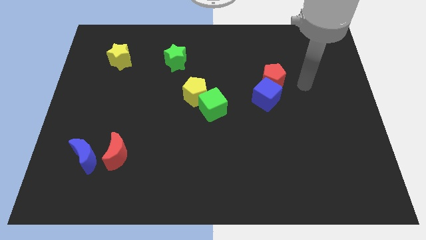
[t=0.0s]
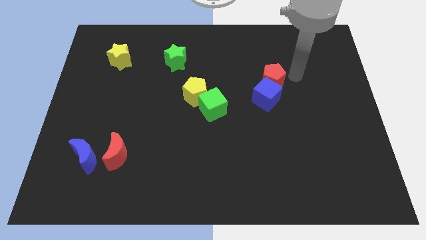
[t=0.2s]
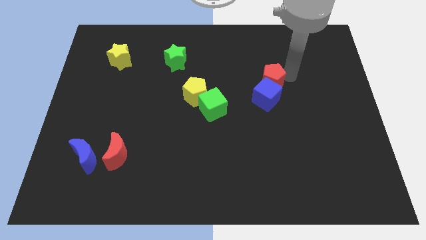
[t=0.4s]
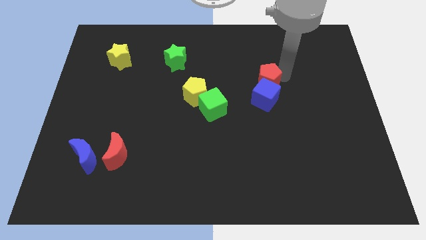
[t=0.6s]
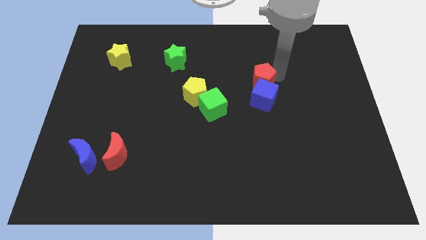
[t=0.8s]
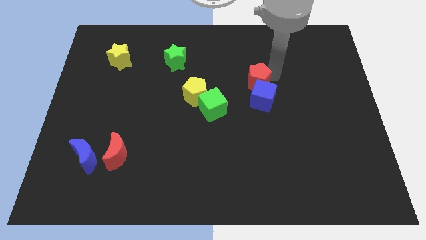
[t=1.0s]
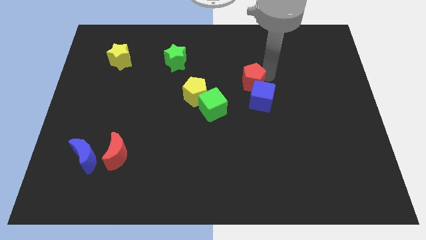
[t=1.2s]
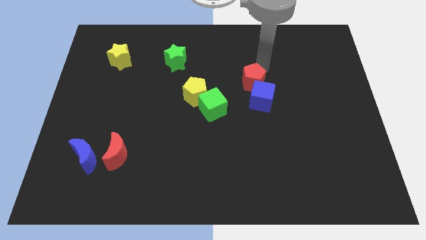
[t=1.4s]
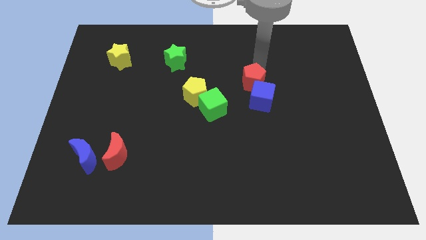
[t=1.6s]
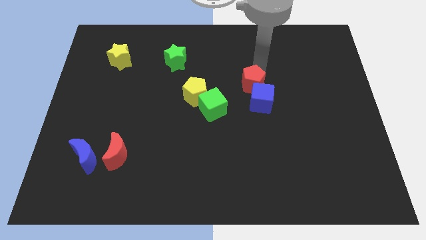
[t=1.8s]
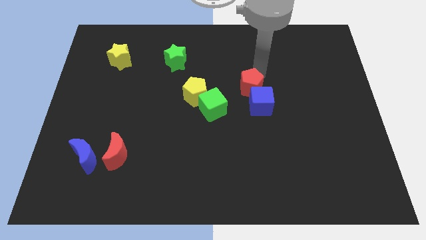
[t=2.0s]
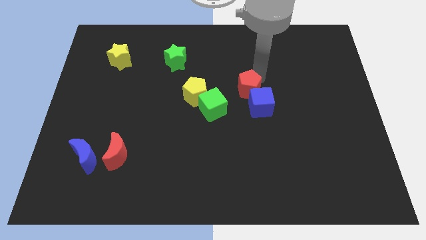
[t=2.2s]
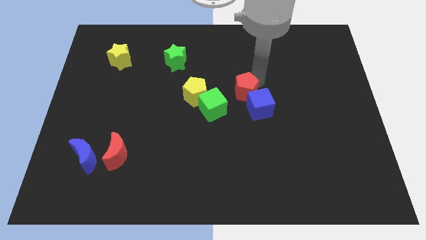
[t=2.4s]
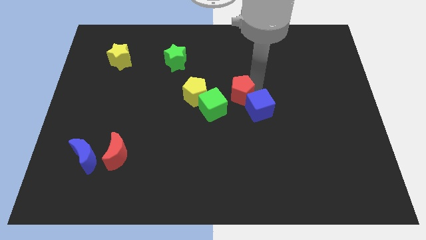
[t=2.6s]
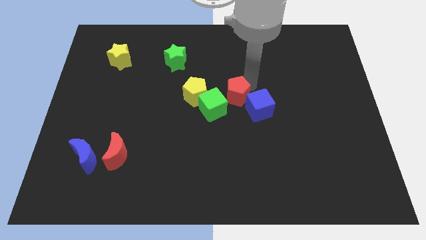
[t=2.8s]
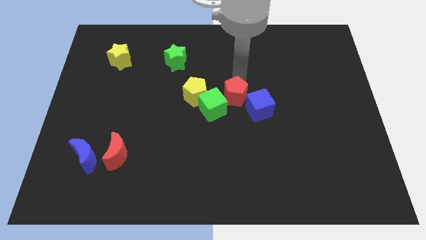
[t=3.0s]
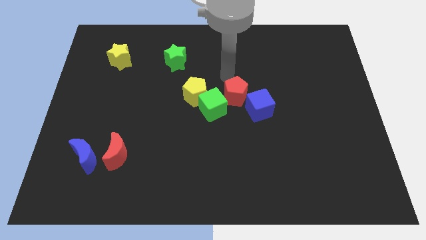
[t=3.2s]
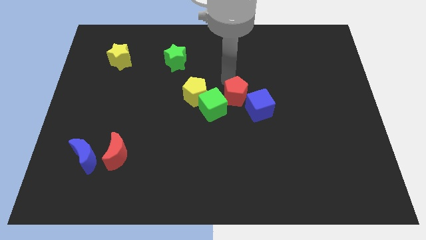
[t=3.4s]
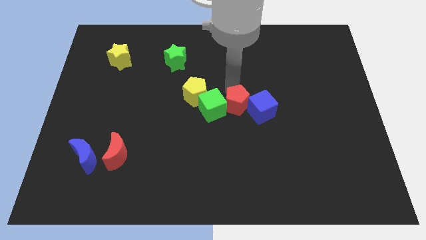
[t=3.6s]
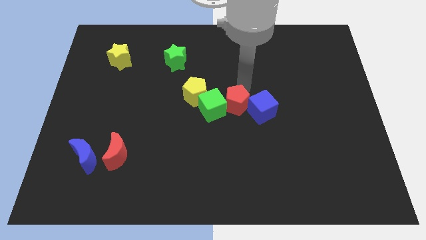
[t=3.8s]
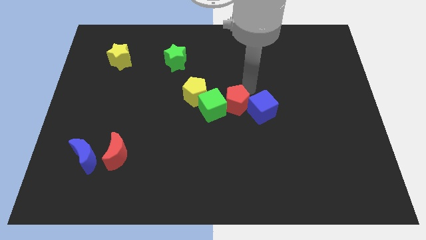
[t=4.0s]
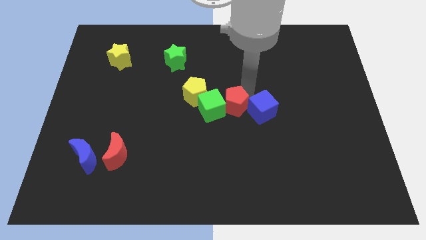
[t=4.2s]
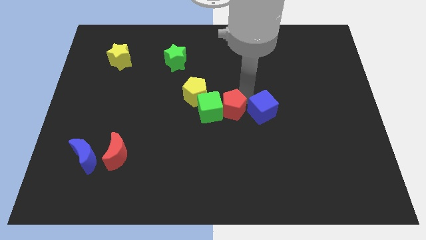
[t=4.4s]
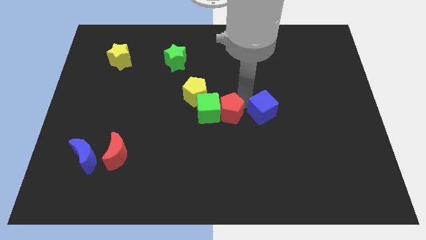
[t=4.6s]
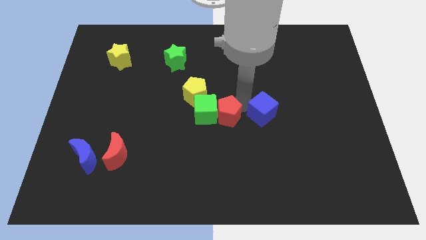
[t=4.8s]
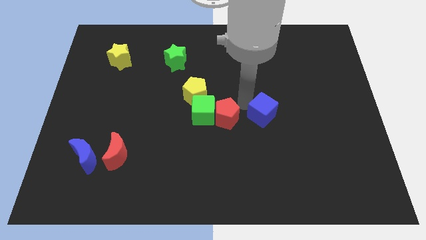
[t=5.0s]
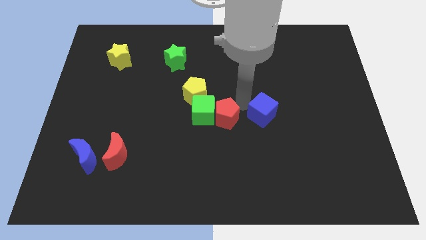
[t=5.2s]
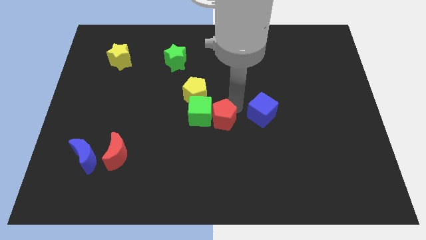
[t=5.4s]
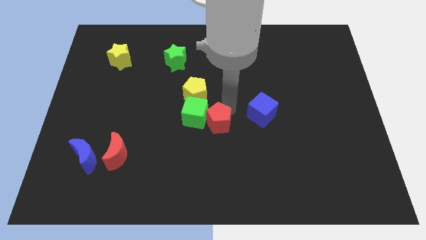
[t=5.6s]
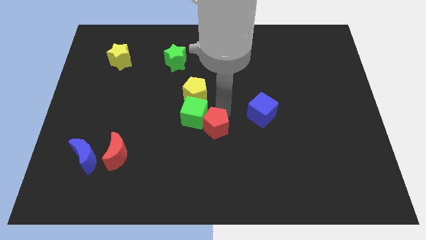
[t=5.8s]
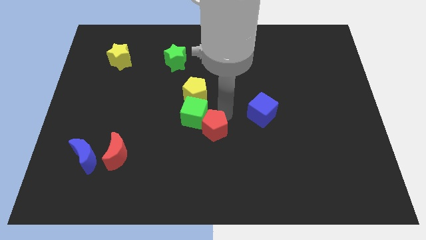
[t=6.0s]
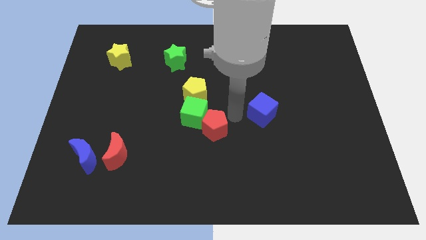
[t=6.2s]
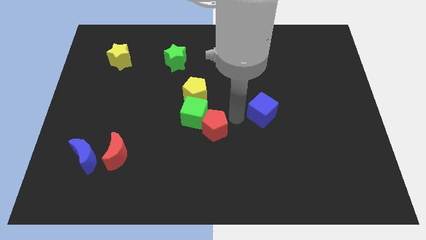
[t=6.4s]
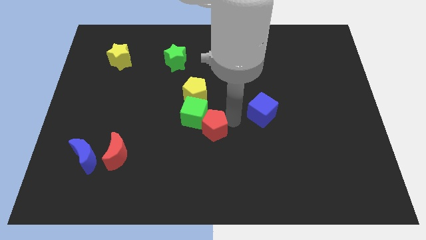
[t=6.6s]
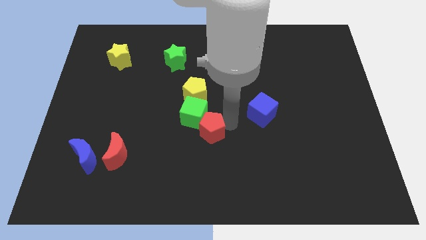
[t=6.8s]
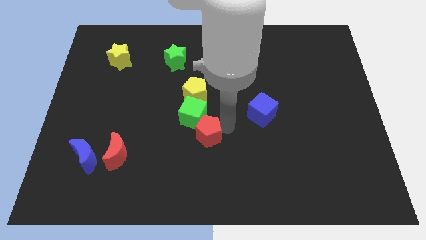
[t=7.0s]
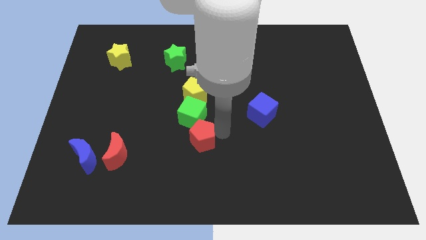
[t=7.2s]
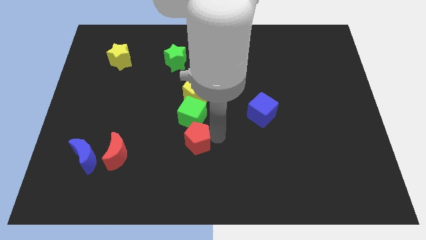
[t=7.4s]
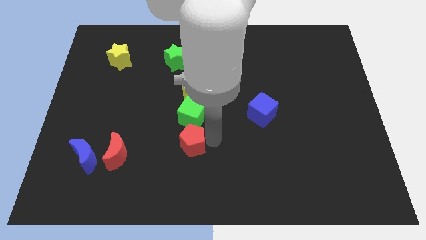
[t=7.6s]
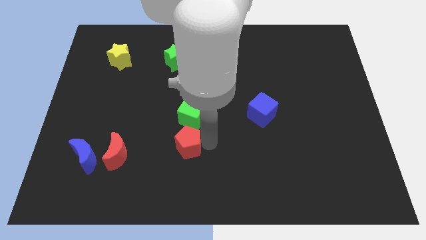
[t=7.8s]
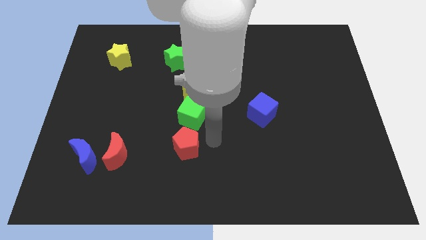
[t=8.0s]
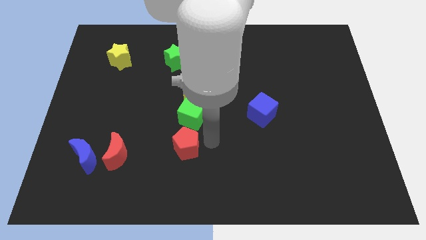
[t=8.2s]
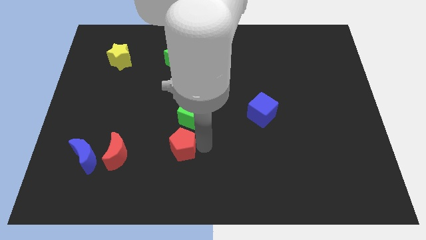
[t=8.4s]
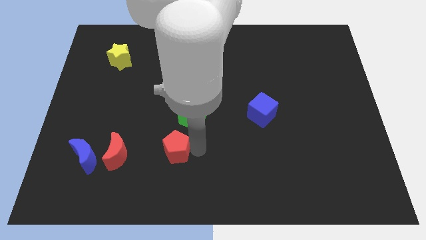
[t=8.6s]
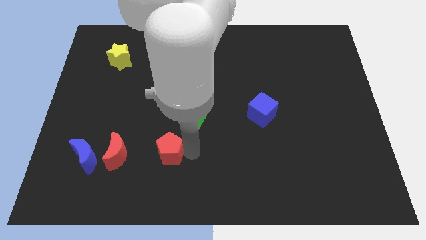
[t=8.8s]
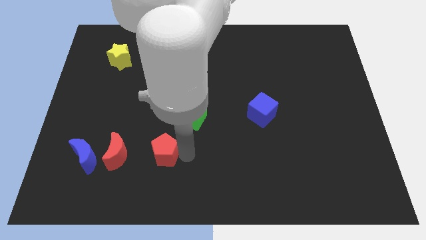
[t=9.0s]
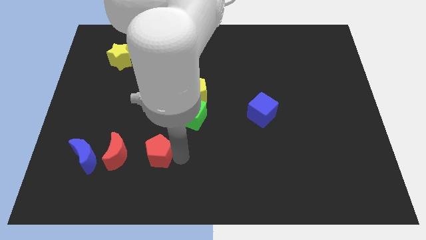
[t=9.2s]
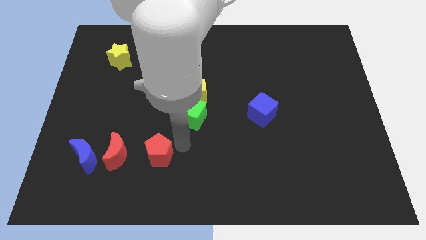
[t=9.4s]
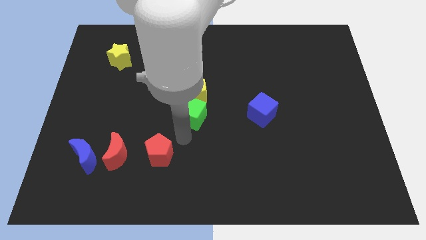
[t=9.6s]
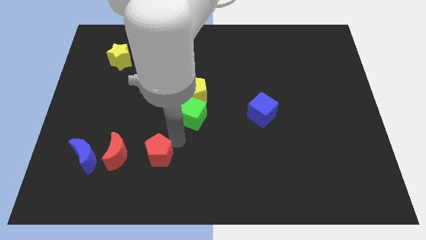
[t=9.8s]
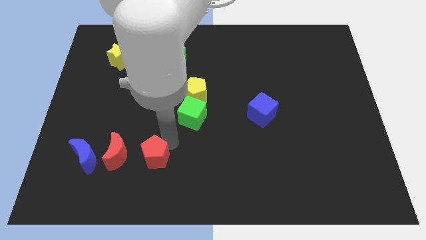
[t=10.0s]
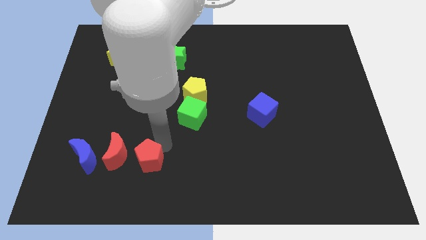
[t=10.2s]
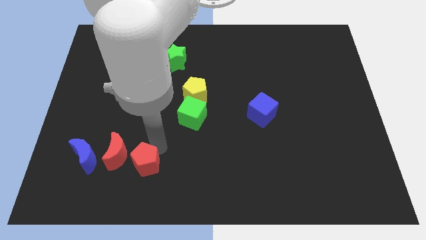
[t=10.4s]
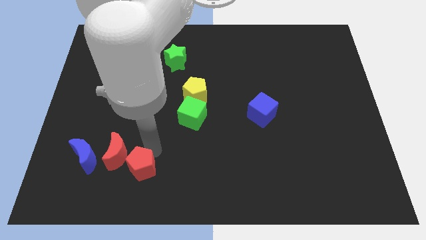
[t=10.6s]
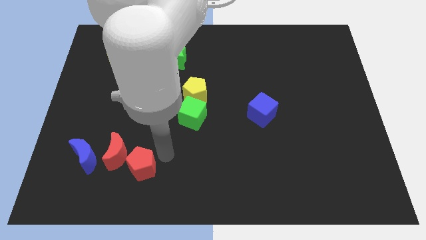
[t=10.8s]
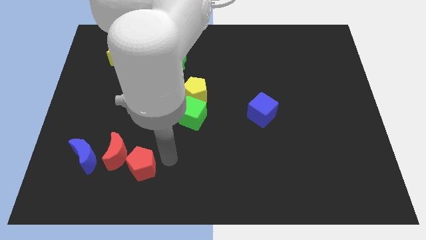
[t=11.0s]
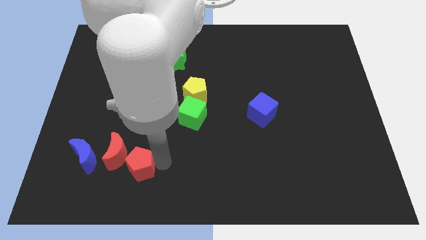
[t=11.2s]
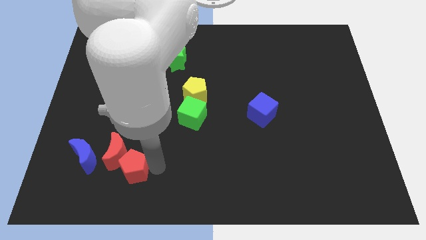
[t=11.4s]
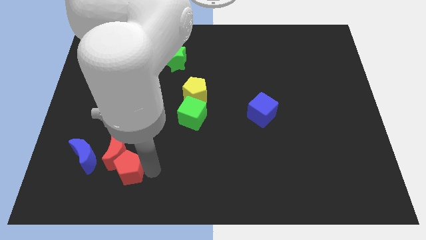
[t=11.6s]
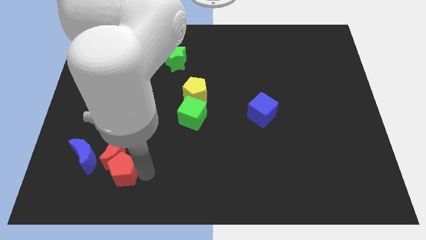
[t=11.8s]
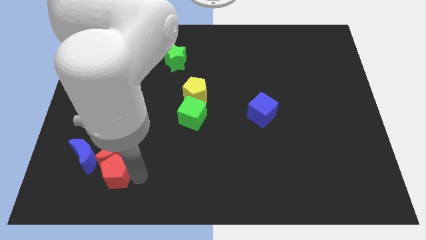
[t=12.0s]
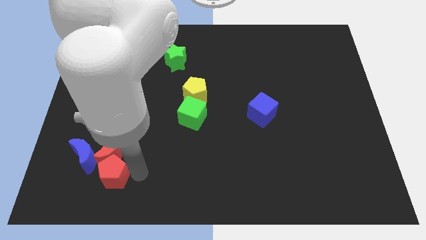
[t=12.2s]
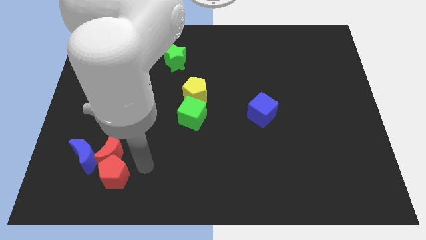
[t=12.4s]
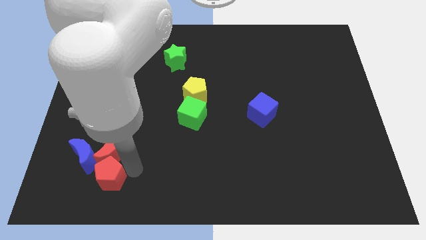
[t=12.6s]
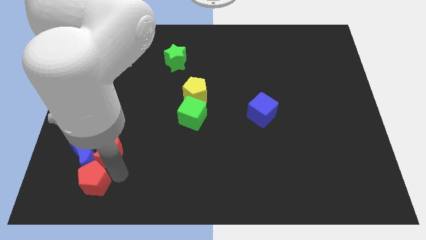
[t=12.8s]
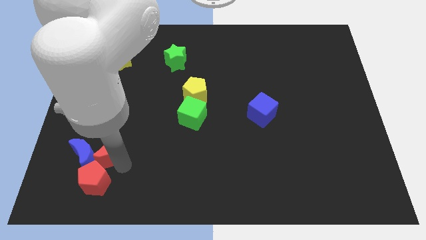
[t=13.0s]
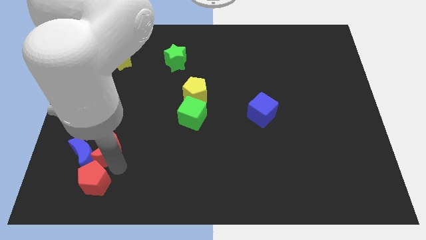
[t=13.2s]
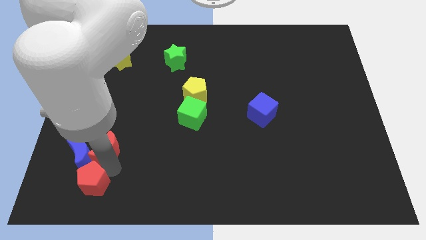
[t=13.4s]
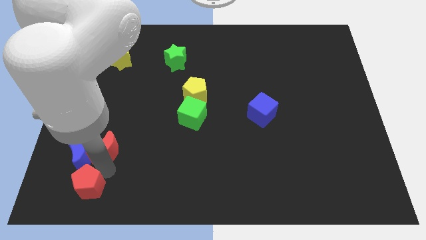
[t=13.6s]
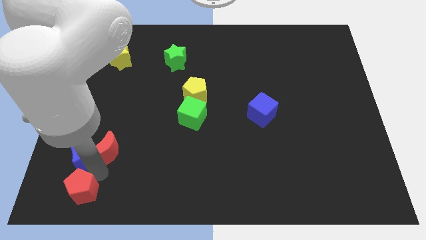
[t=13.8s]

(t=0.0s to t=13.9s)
move the red pentagon to the bottom left corner

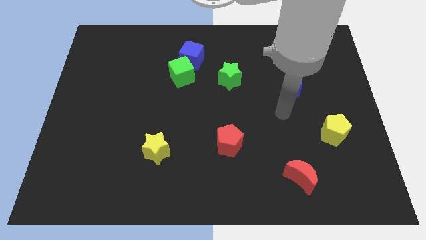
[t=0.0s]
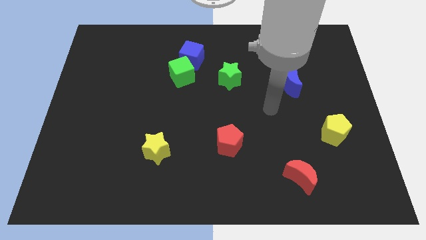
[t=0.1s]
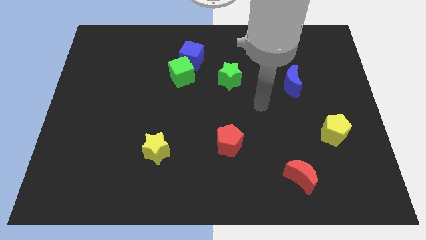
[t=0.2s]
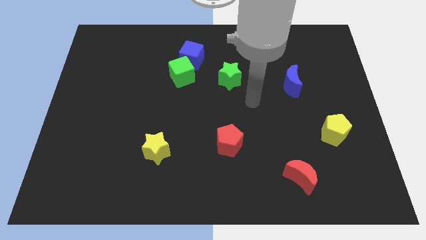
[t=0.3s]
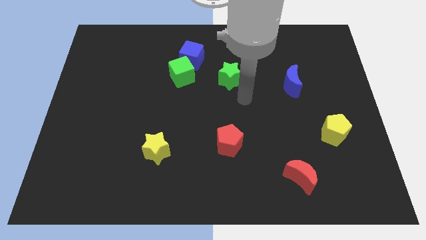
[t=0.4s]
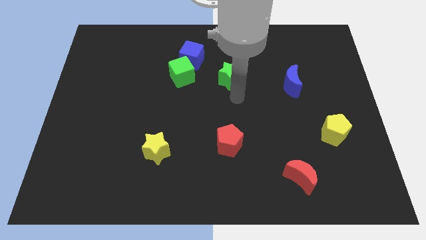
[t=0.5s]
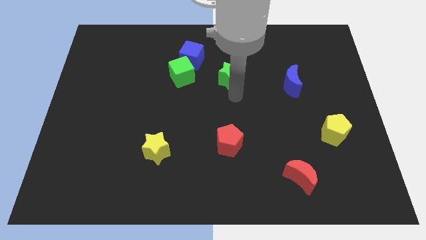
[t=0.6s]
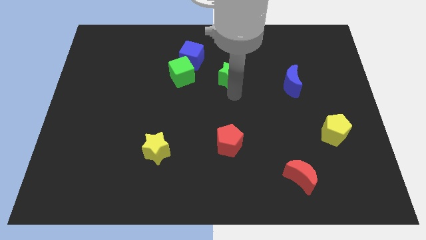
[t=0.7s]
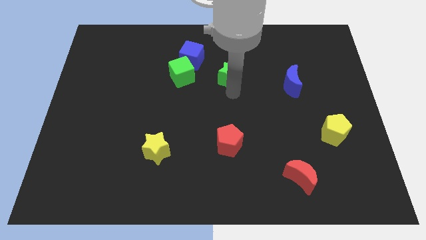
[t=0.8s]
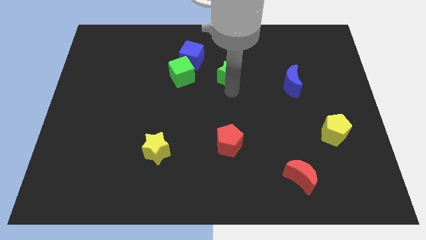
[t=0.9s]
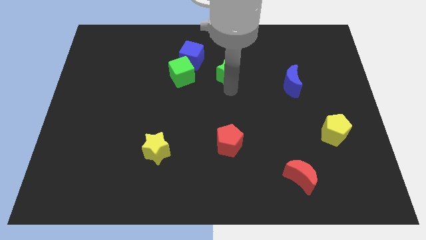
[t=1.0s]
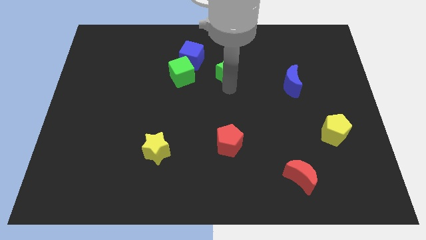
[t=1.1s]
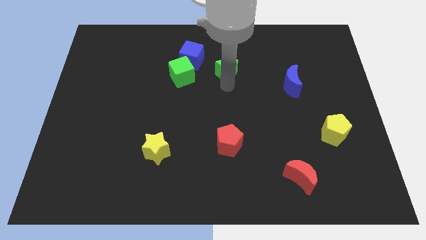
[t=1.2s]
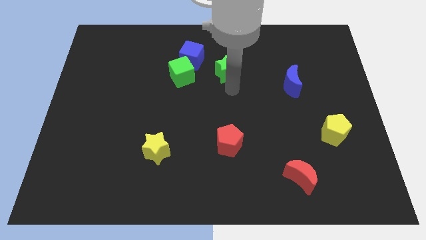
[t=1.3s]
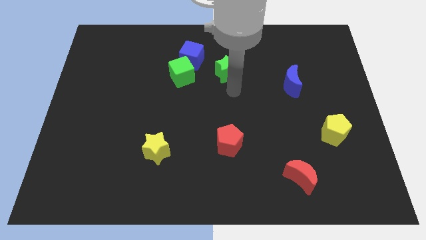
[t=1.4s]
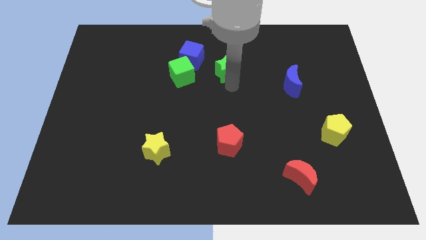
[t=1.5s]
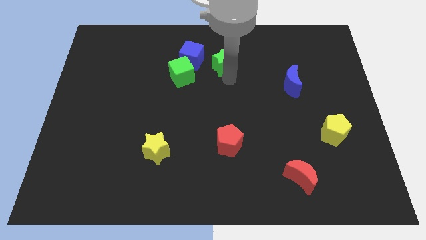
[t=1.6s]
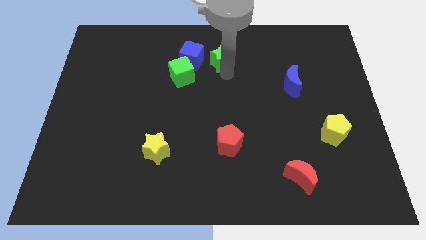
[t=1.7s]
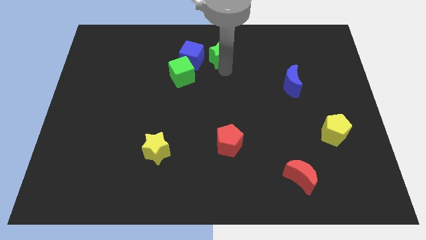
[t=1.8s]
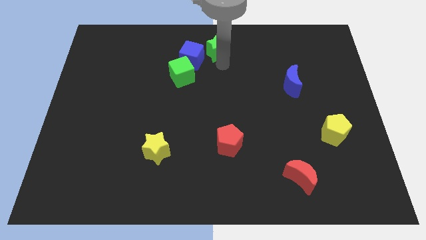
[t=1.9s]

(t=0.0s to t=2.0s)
push the green star to the towards your base
